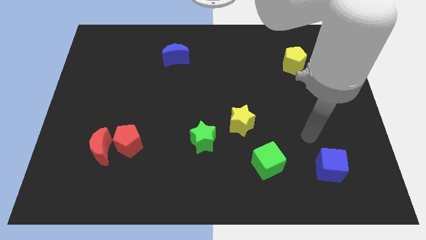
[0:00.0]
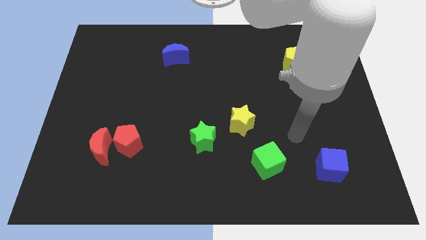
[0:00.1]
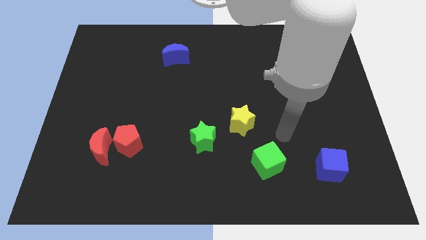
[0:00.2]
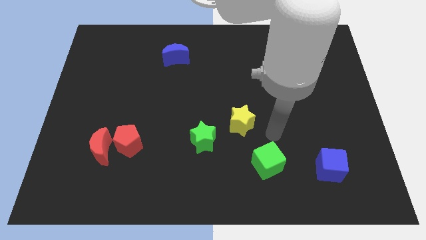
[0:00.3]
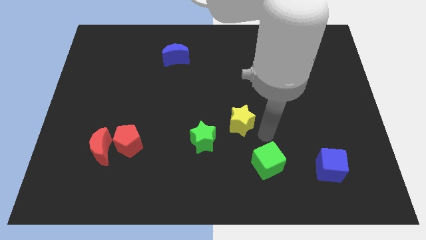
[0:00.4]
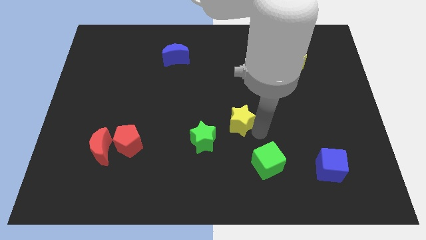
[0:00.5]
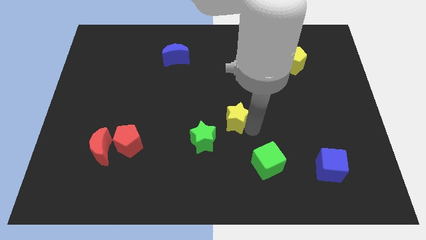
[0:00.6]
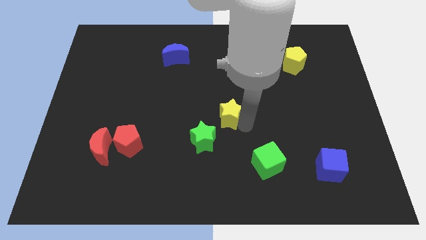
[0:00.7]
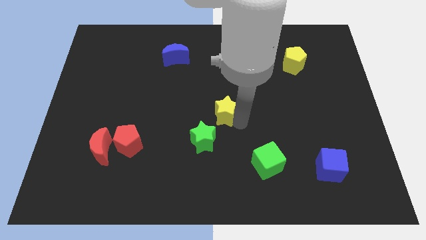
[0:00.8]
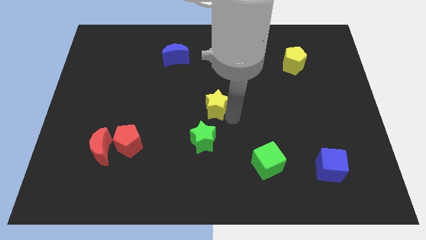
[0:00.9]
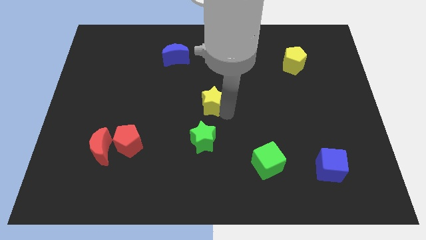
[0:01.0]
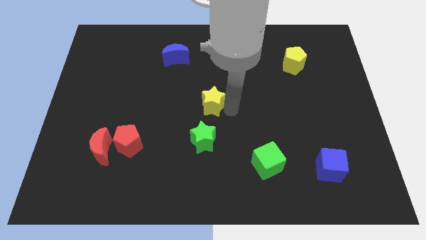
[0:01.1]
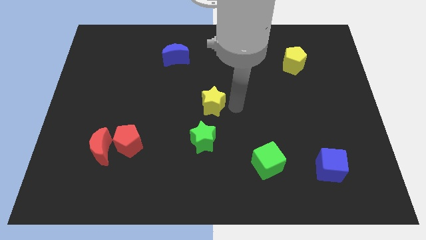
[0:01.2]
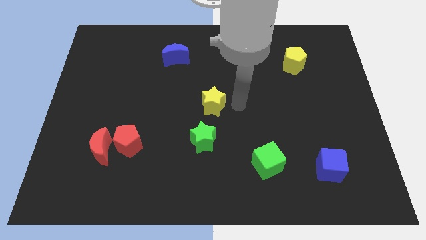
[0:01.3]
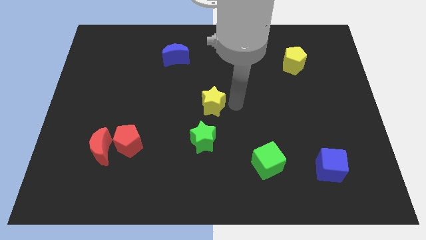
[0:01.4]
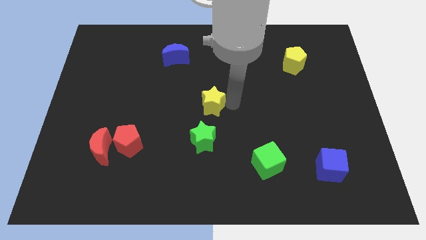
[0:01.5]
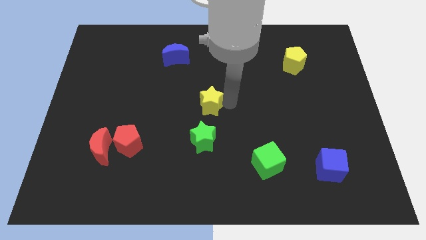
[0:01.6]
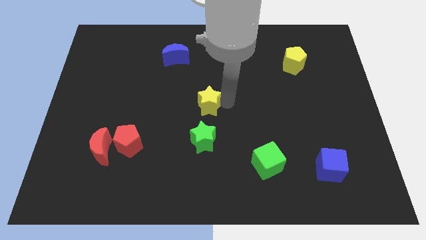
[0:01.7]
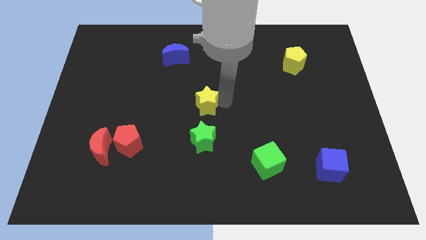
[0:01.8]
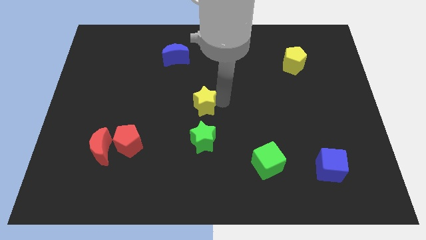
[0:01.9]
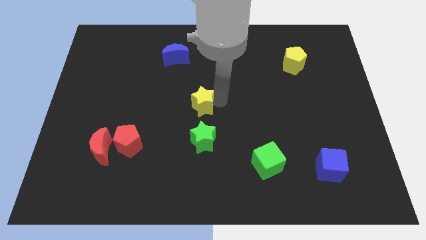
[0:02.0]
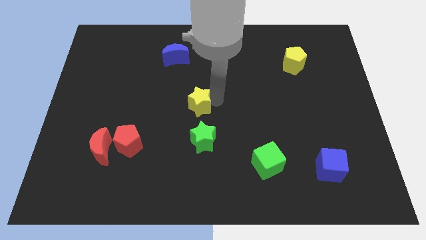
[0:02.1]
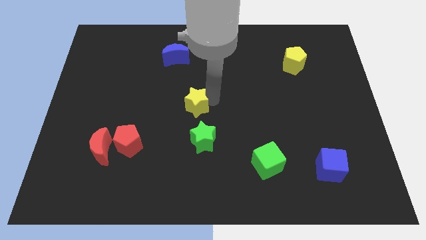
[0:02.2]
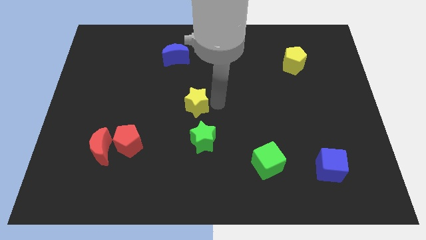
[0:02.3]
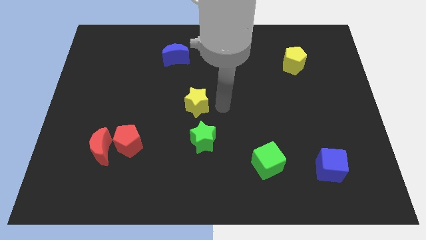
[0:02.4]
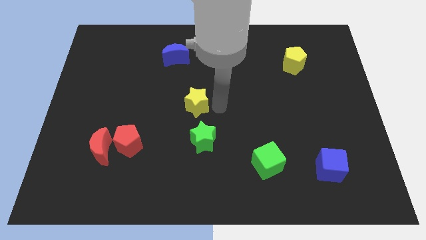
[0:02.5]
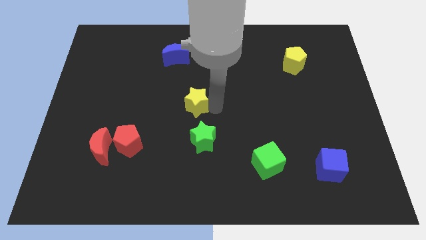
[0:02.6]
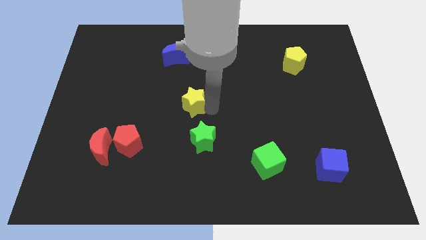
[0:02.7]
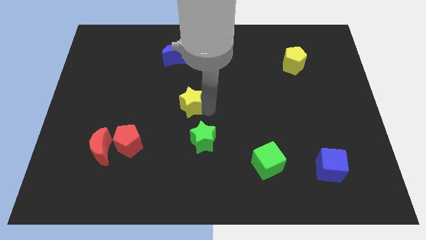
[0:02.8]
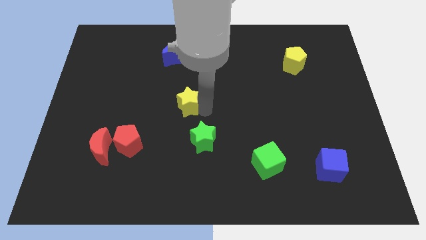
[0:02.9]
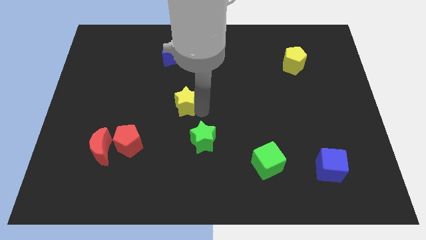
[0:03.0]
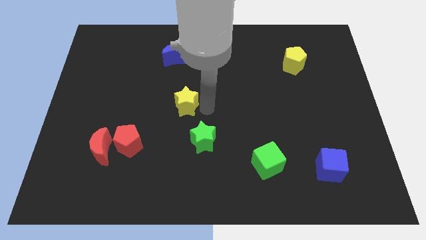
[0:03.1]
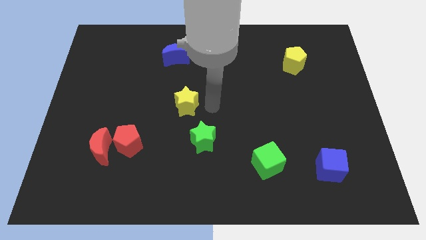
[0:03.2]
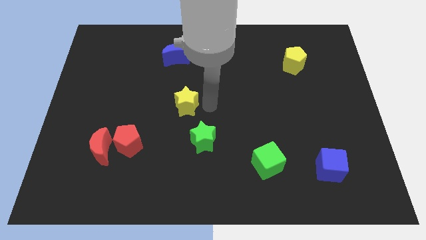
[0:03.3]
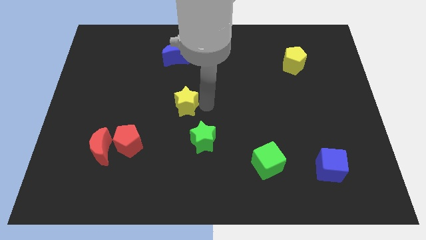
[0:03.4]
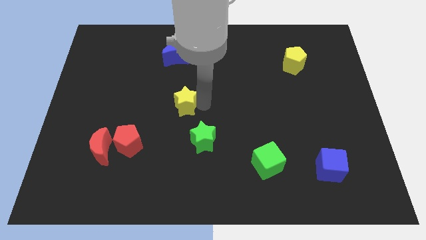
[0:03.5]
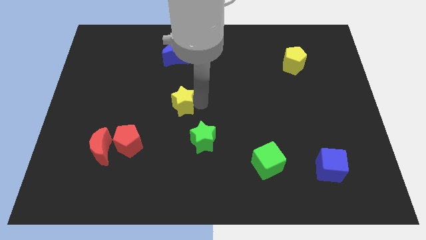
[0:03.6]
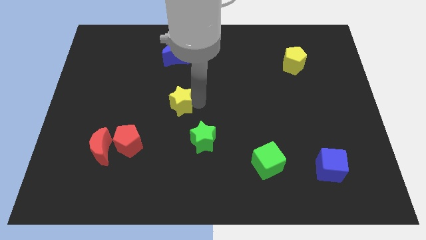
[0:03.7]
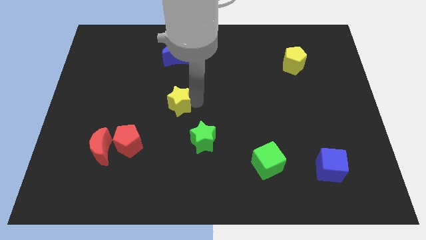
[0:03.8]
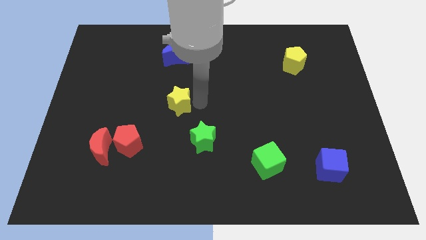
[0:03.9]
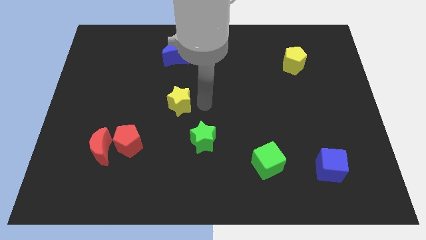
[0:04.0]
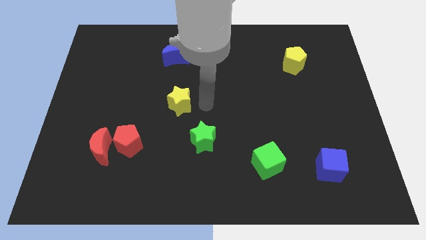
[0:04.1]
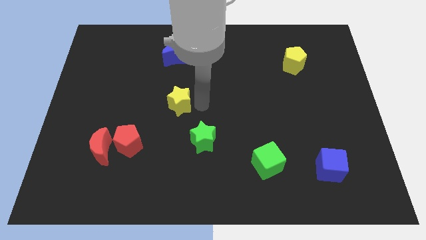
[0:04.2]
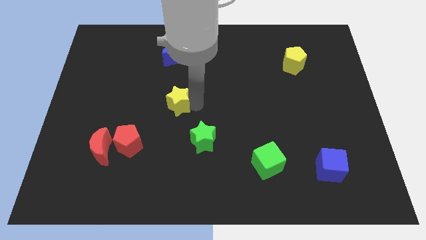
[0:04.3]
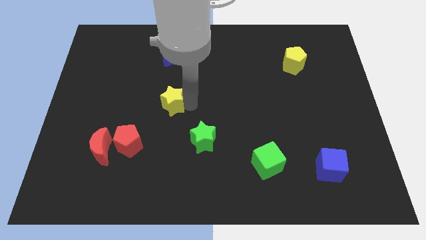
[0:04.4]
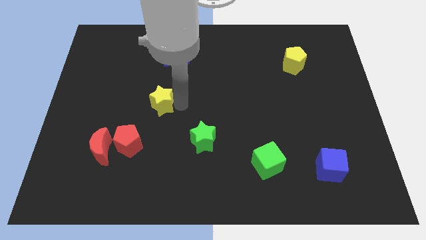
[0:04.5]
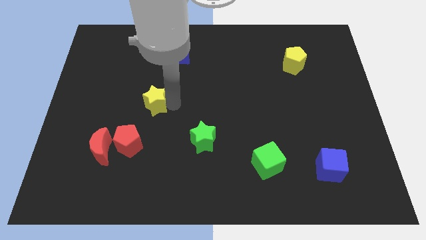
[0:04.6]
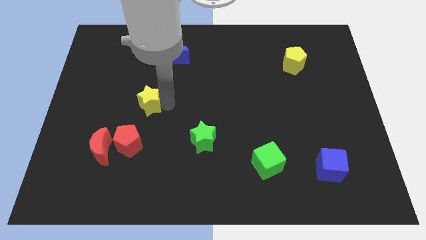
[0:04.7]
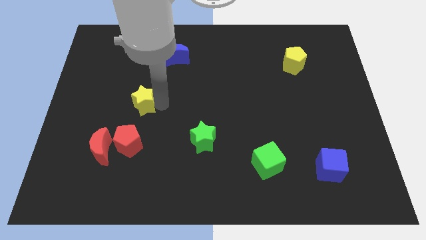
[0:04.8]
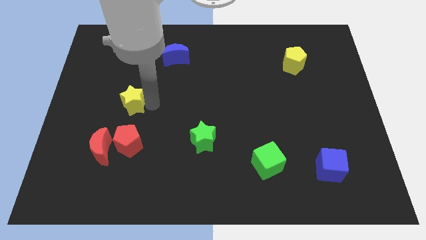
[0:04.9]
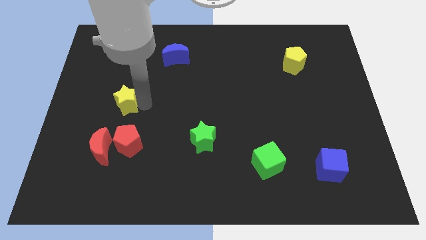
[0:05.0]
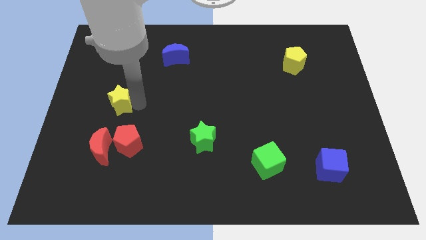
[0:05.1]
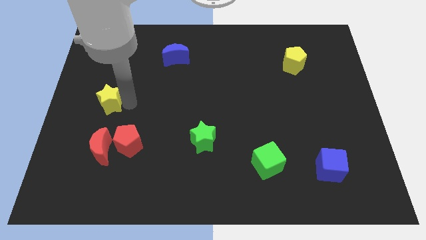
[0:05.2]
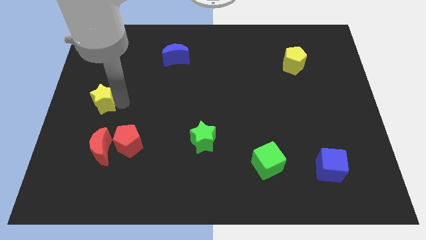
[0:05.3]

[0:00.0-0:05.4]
push the yellow star to the left side

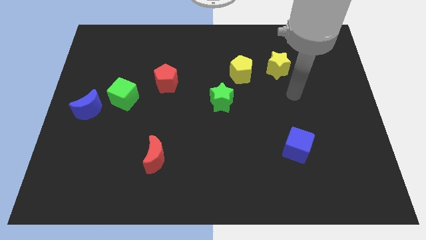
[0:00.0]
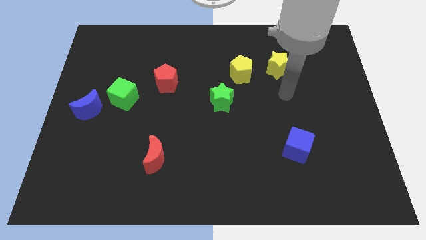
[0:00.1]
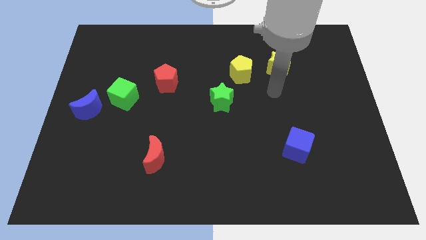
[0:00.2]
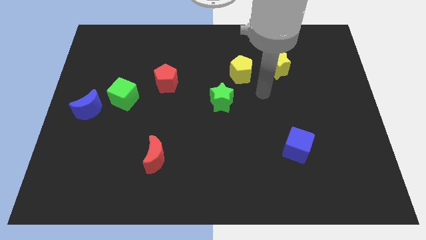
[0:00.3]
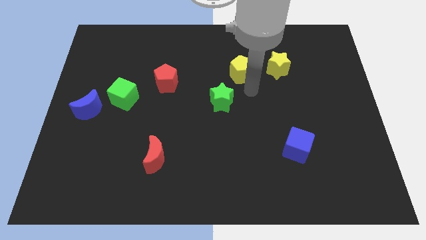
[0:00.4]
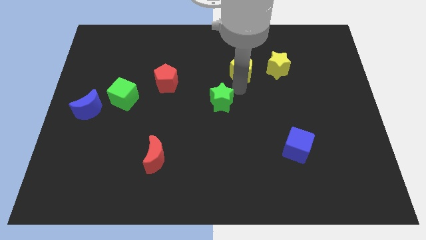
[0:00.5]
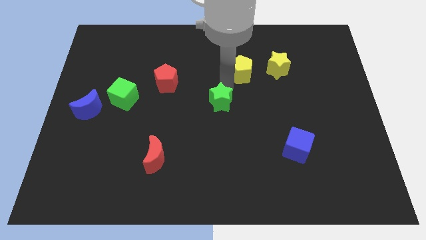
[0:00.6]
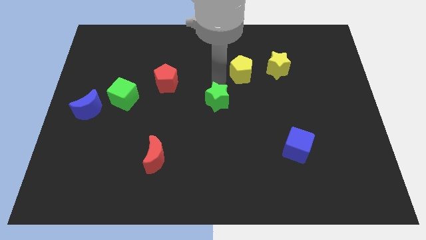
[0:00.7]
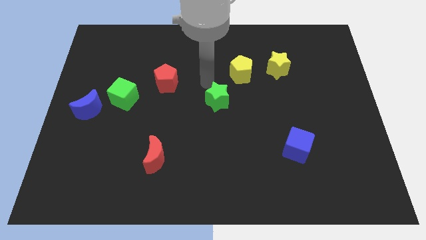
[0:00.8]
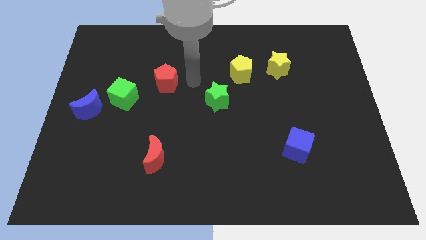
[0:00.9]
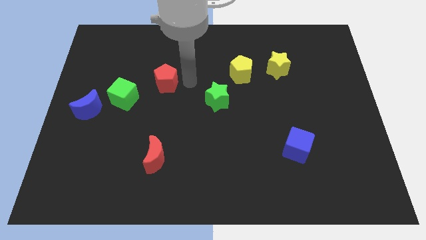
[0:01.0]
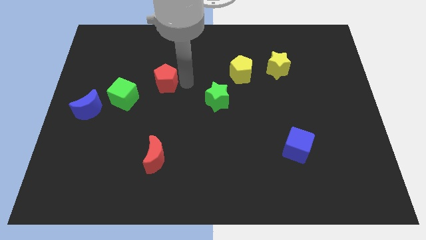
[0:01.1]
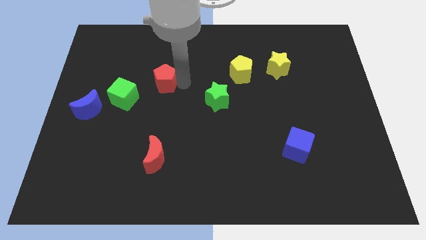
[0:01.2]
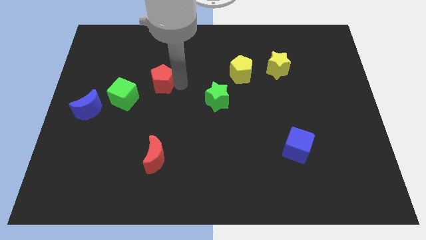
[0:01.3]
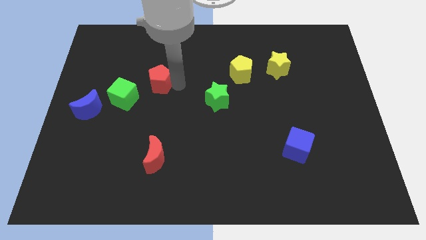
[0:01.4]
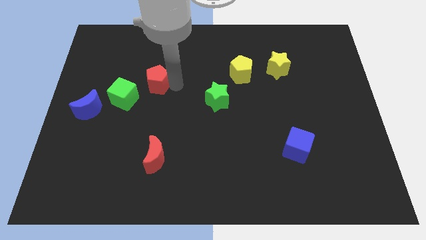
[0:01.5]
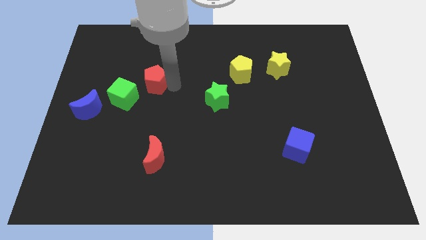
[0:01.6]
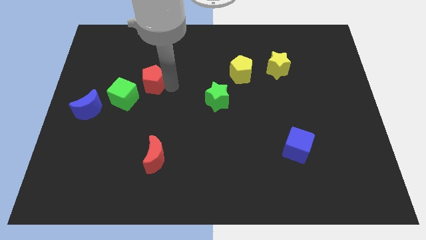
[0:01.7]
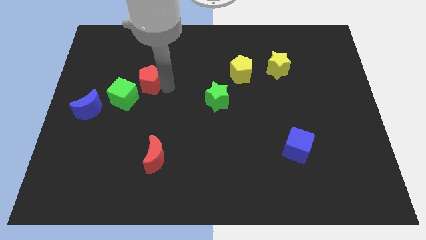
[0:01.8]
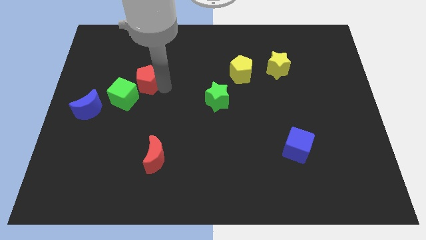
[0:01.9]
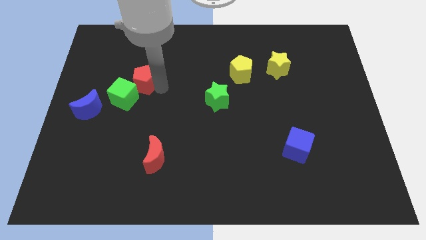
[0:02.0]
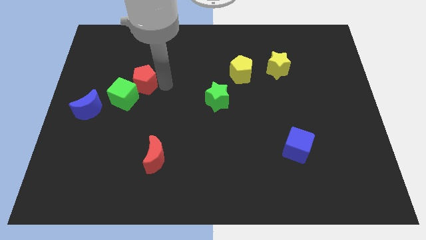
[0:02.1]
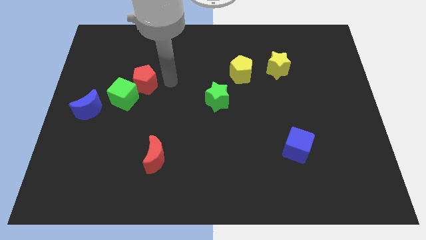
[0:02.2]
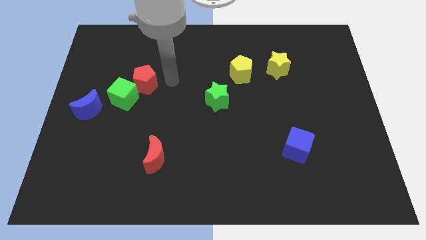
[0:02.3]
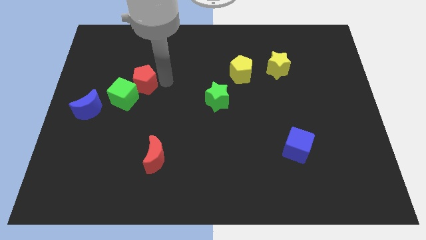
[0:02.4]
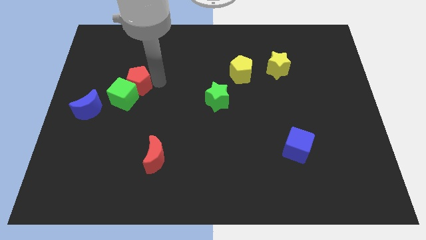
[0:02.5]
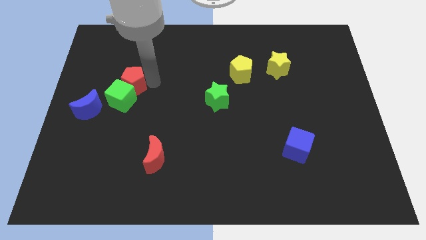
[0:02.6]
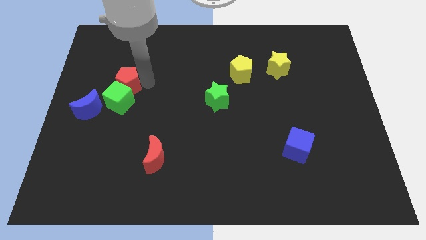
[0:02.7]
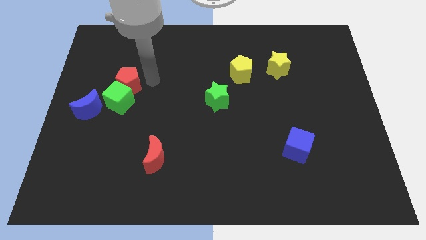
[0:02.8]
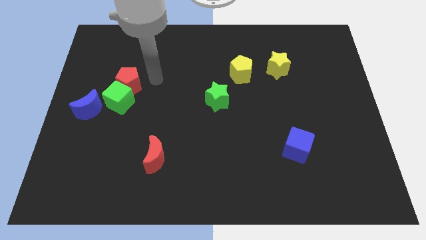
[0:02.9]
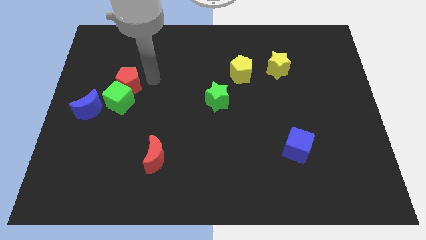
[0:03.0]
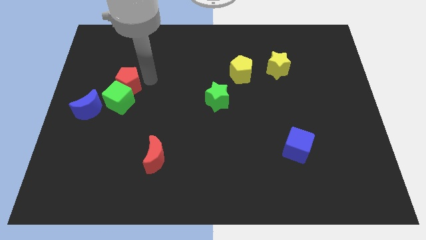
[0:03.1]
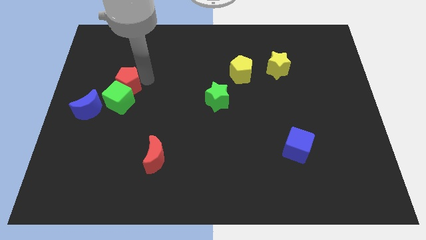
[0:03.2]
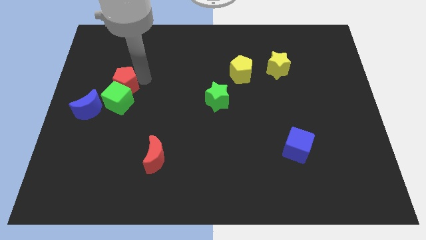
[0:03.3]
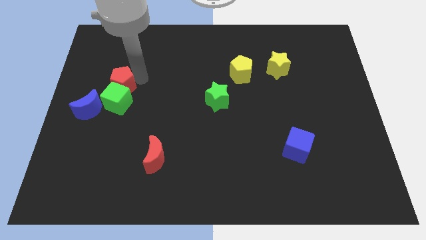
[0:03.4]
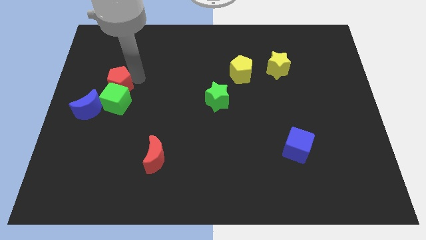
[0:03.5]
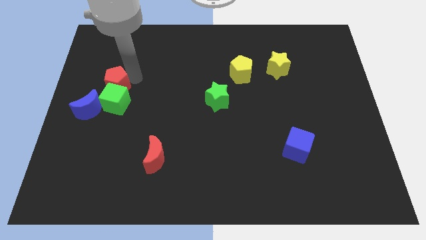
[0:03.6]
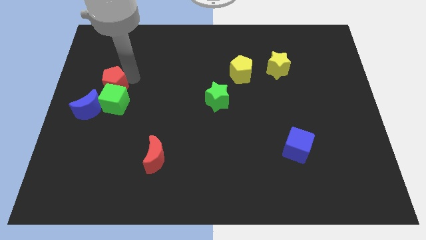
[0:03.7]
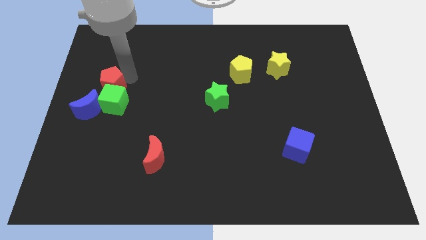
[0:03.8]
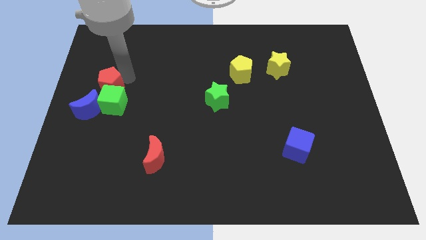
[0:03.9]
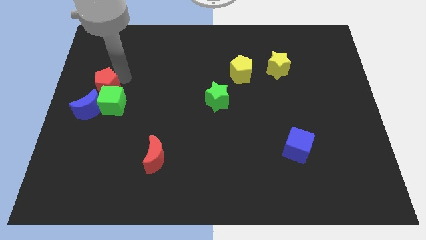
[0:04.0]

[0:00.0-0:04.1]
slide the red pentagon to the center left
